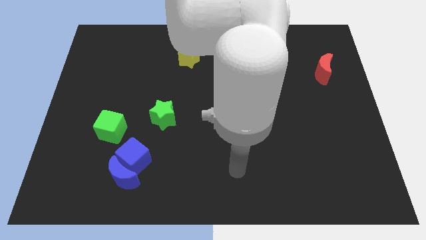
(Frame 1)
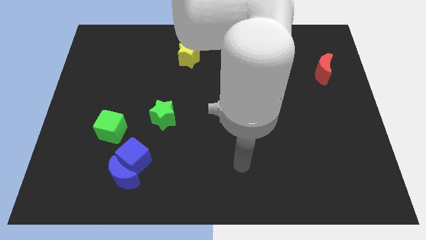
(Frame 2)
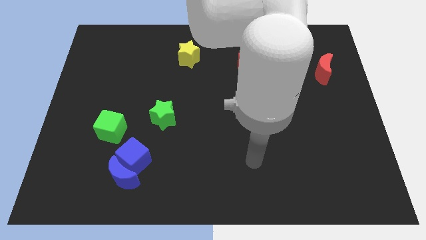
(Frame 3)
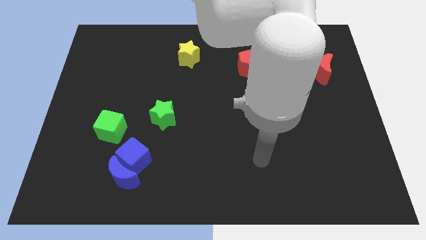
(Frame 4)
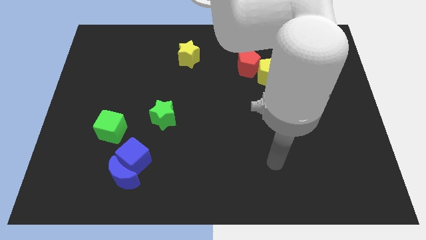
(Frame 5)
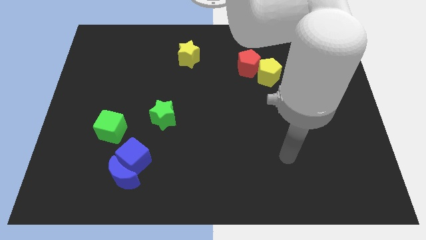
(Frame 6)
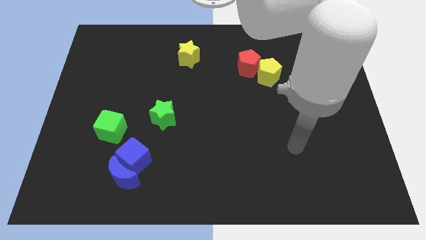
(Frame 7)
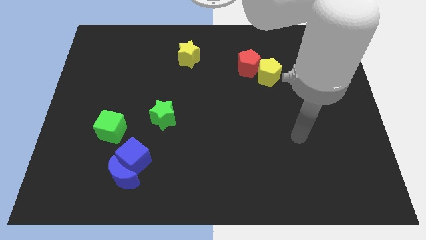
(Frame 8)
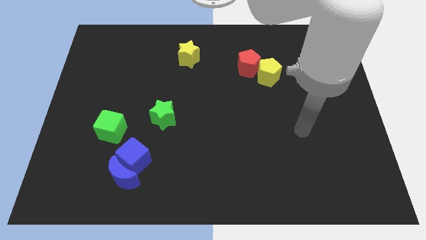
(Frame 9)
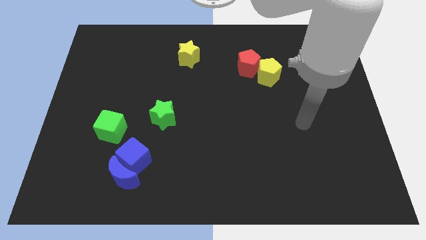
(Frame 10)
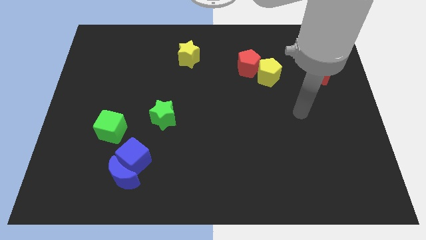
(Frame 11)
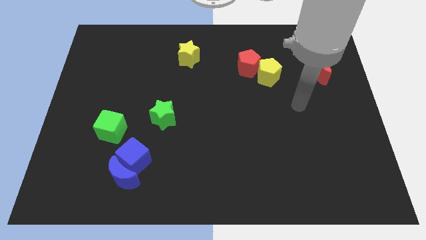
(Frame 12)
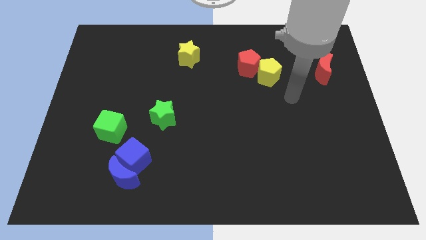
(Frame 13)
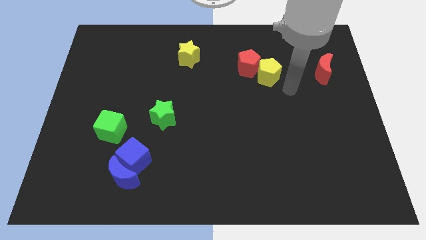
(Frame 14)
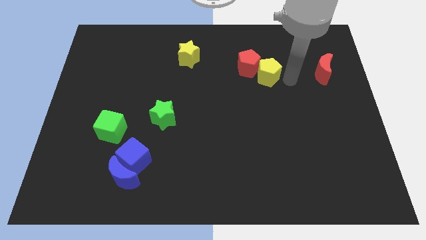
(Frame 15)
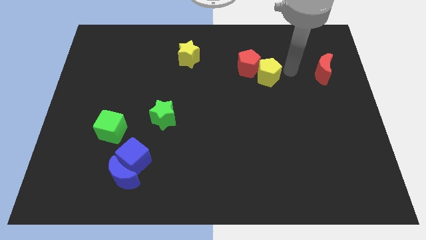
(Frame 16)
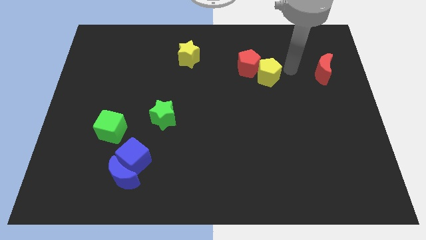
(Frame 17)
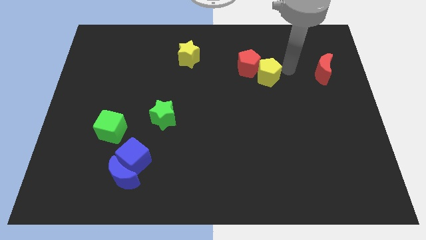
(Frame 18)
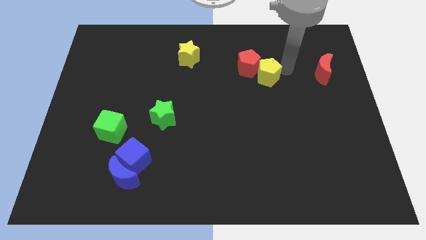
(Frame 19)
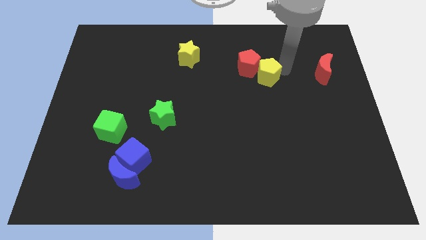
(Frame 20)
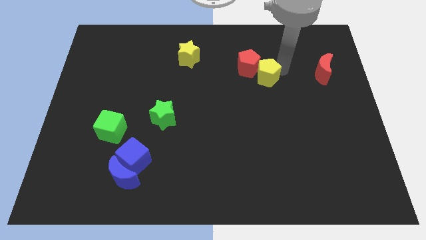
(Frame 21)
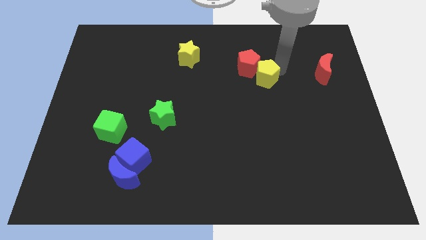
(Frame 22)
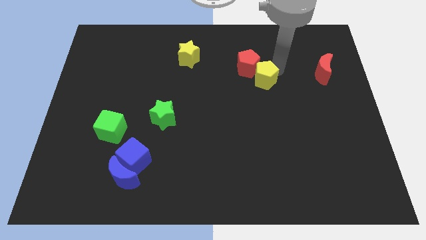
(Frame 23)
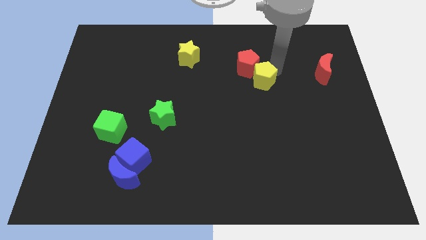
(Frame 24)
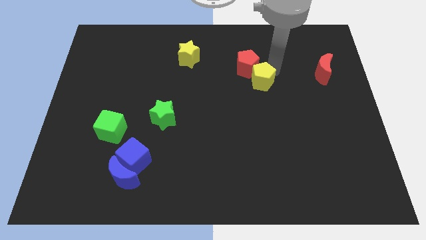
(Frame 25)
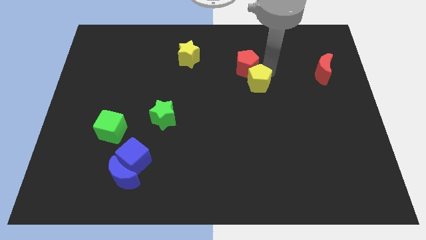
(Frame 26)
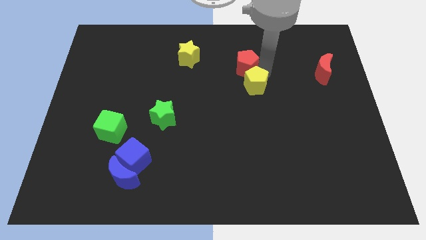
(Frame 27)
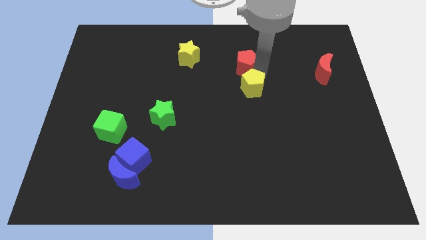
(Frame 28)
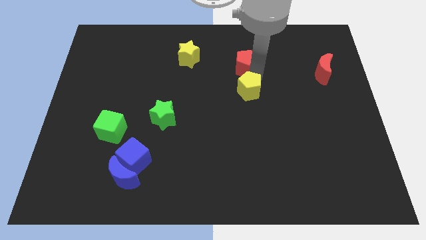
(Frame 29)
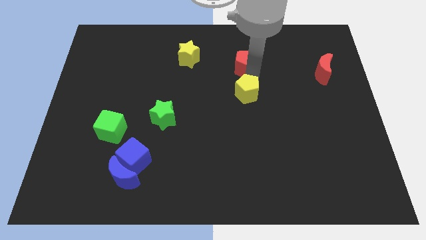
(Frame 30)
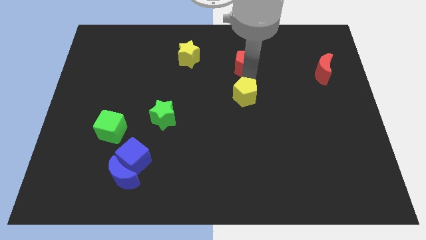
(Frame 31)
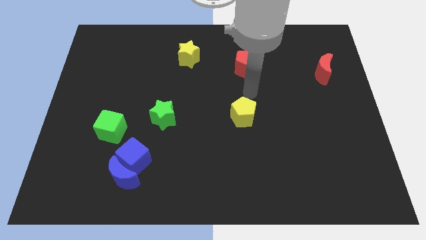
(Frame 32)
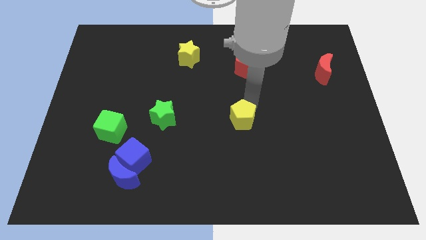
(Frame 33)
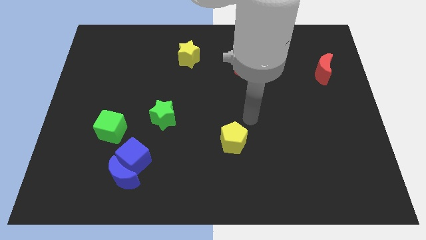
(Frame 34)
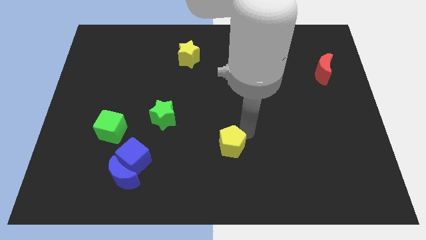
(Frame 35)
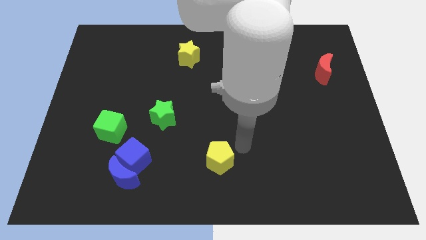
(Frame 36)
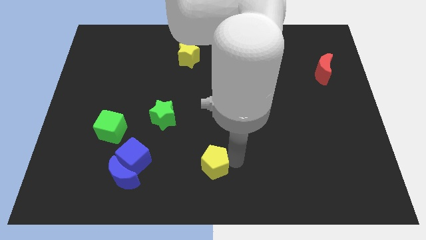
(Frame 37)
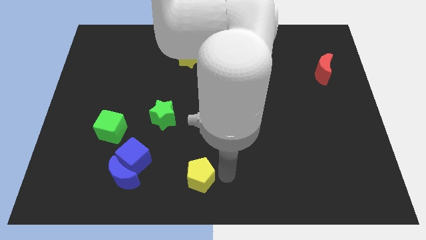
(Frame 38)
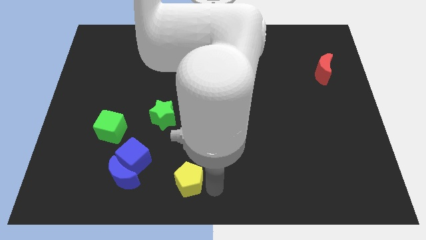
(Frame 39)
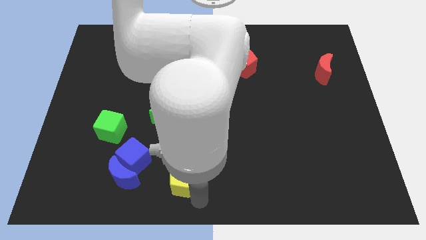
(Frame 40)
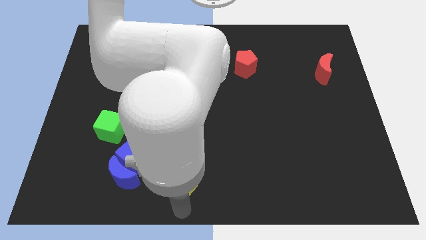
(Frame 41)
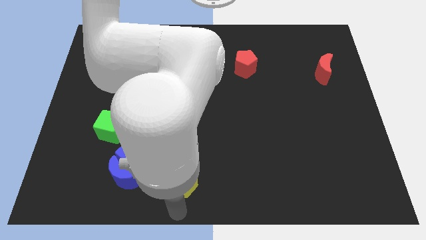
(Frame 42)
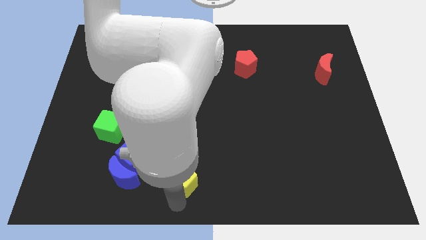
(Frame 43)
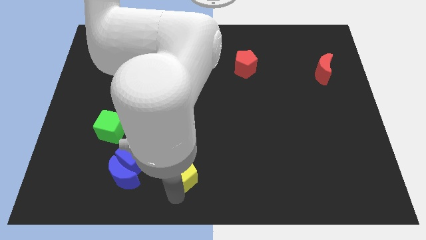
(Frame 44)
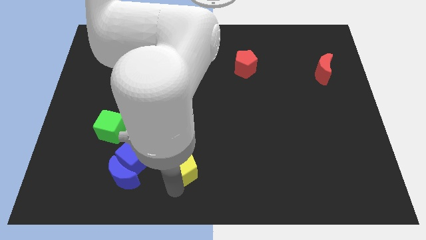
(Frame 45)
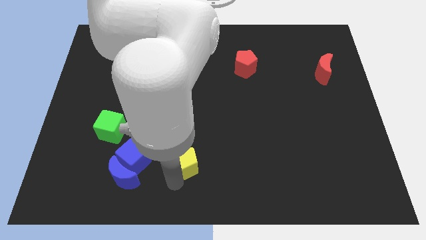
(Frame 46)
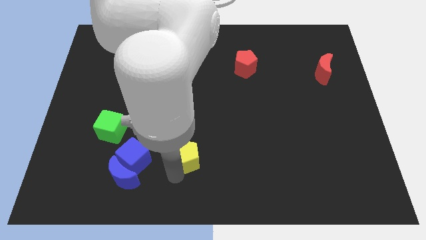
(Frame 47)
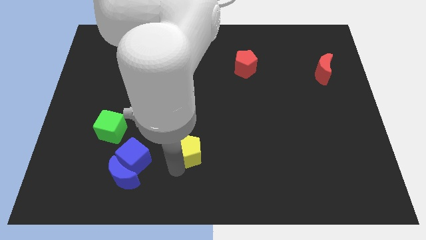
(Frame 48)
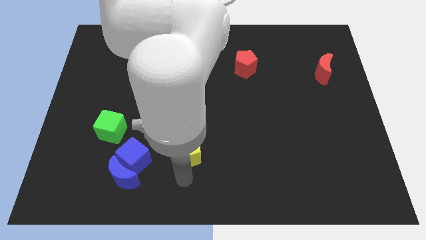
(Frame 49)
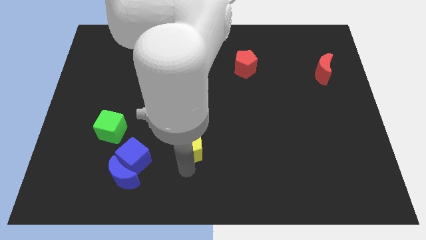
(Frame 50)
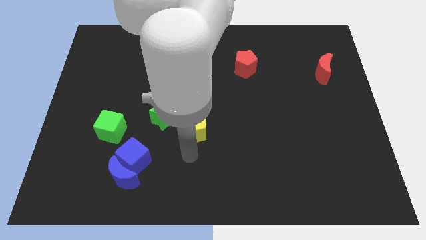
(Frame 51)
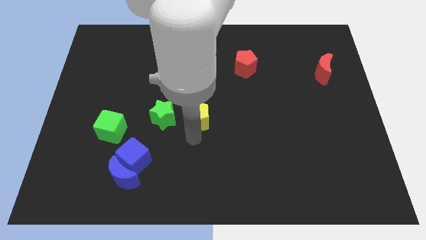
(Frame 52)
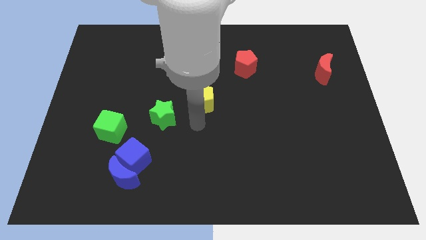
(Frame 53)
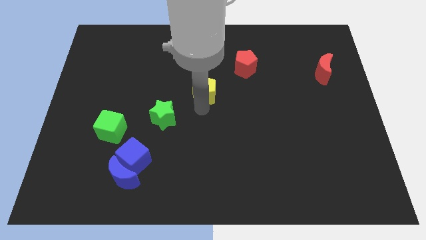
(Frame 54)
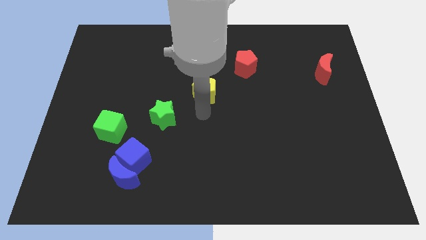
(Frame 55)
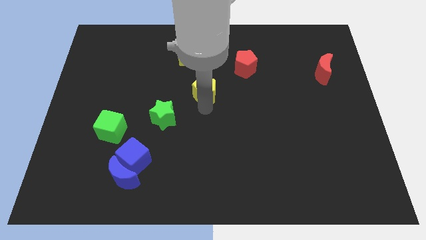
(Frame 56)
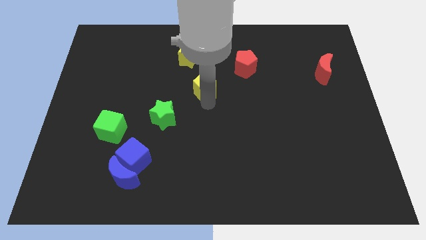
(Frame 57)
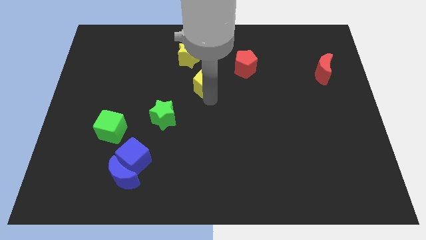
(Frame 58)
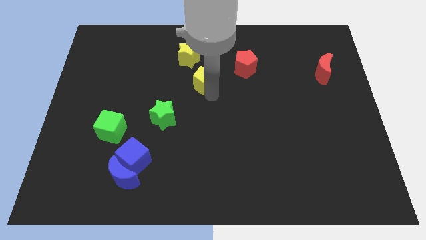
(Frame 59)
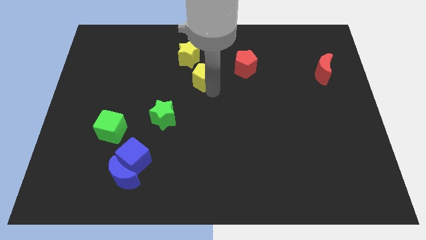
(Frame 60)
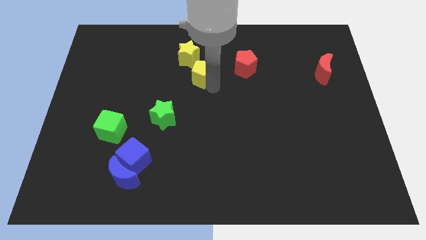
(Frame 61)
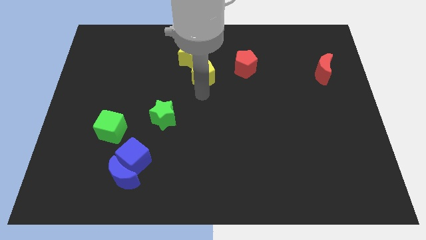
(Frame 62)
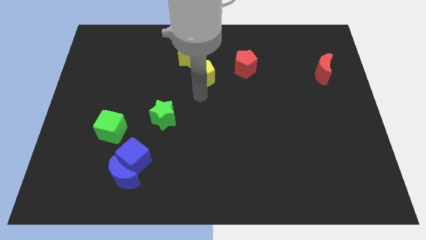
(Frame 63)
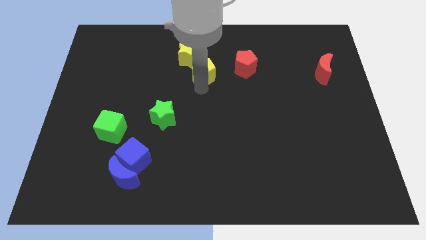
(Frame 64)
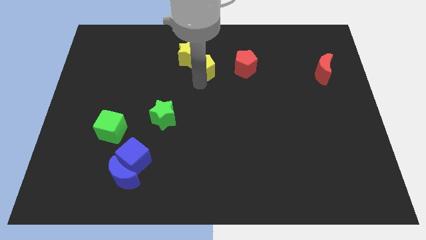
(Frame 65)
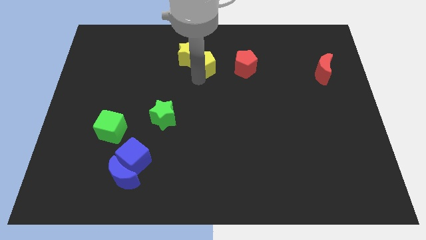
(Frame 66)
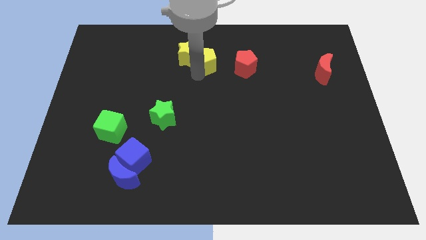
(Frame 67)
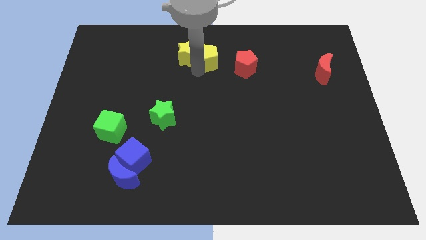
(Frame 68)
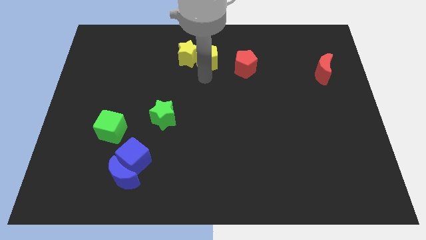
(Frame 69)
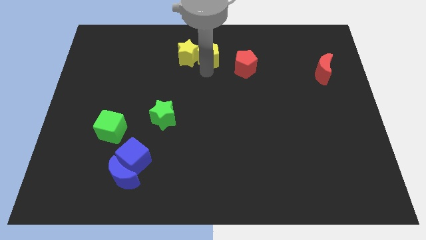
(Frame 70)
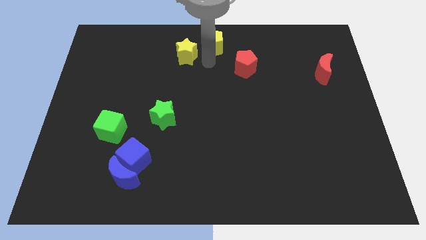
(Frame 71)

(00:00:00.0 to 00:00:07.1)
move the yellow pentagon to the towards your base

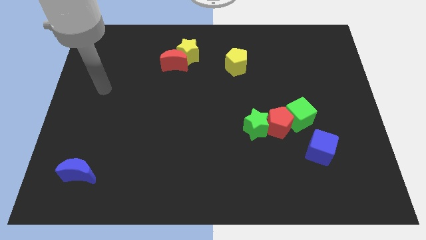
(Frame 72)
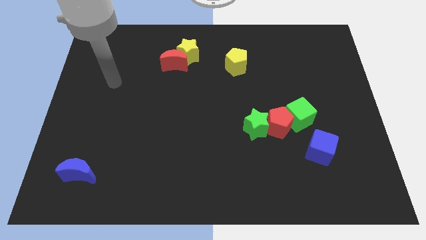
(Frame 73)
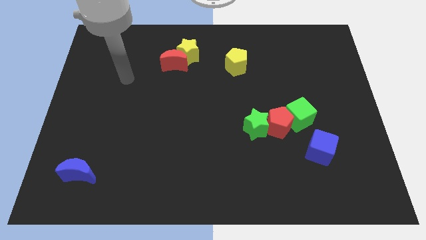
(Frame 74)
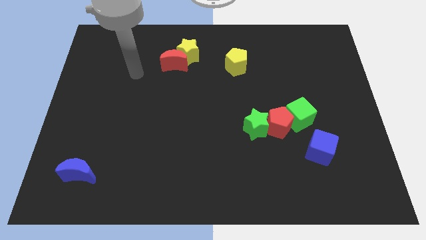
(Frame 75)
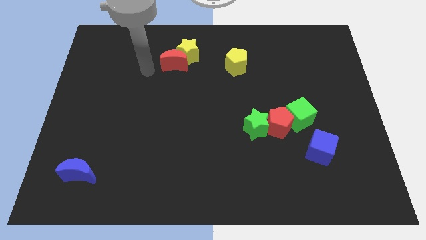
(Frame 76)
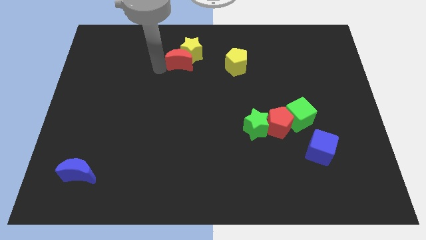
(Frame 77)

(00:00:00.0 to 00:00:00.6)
move the yellow star to the top side
